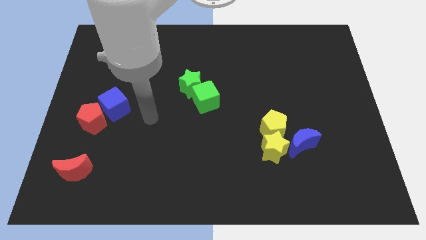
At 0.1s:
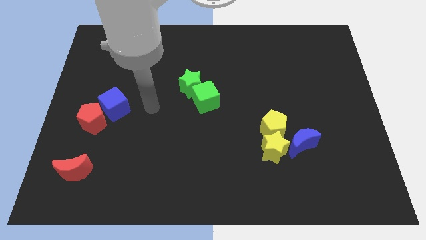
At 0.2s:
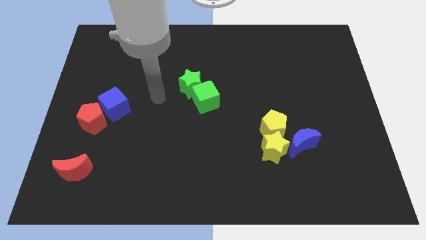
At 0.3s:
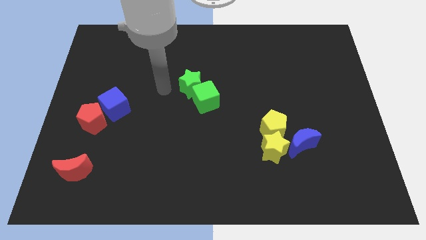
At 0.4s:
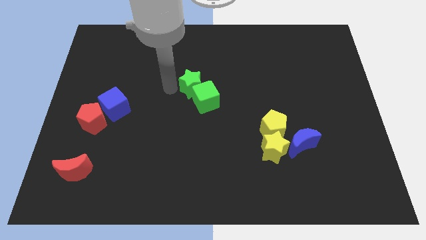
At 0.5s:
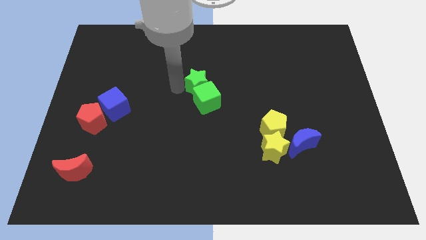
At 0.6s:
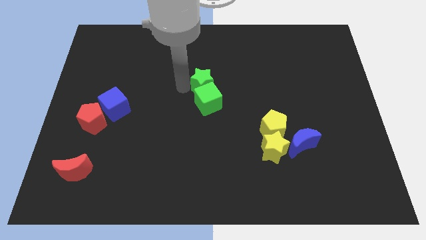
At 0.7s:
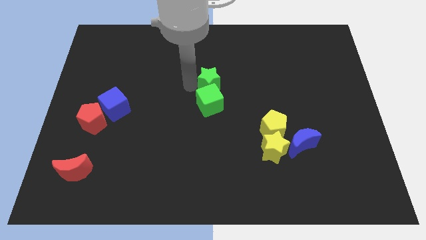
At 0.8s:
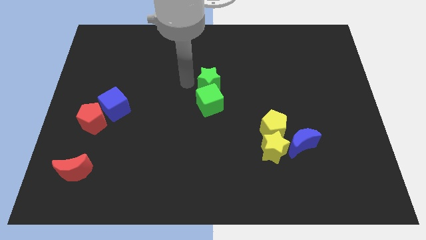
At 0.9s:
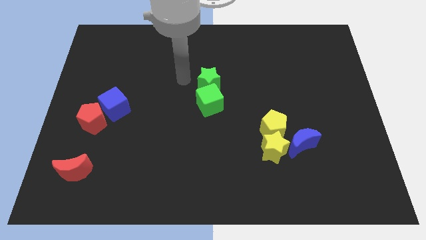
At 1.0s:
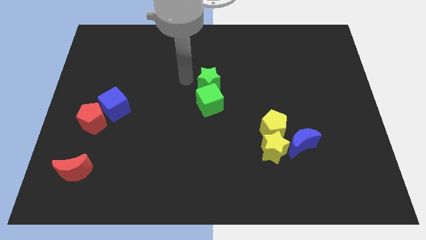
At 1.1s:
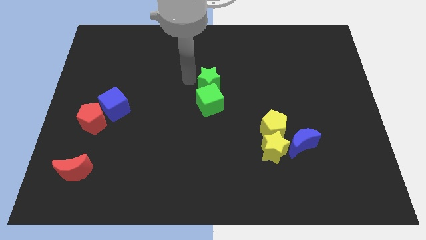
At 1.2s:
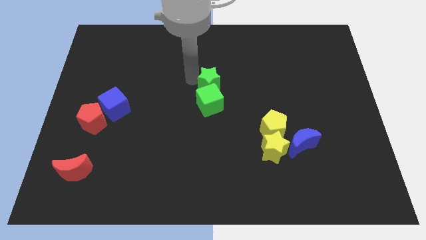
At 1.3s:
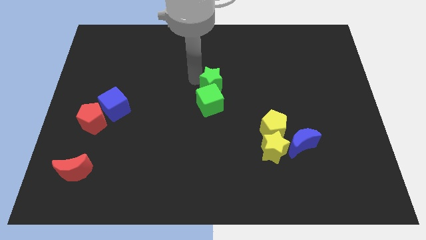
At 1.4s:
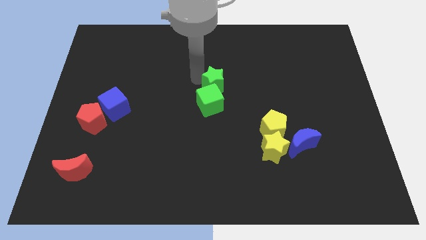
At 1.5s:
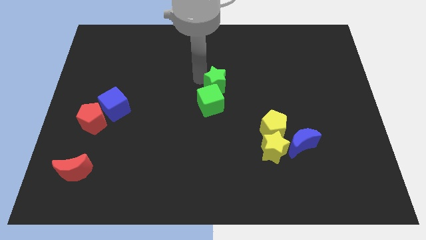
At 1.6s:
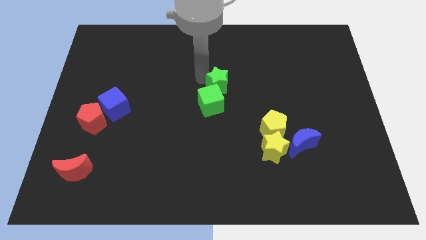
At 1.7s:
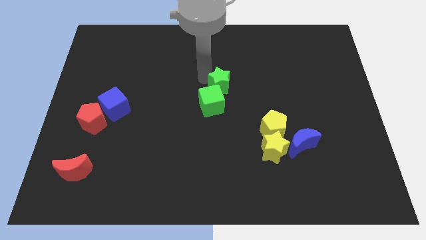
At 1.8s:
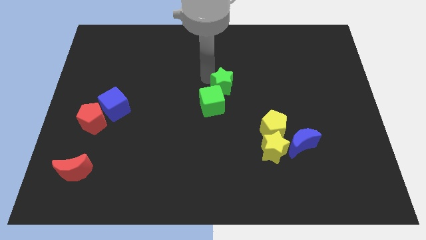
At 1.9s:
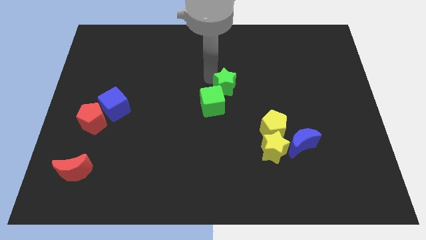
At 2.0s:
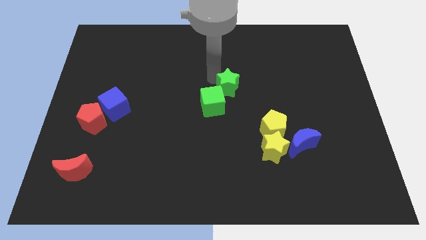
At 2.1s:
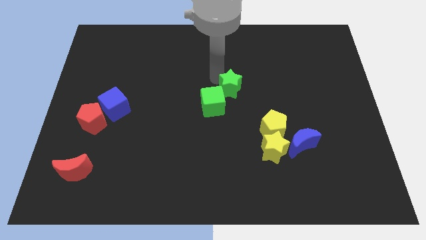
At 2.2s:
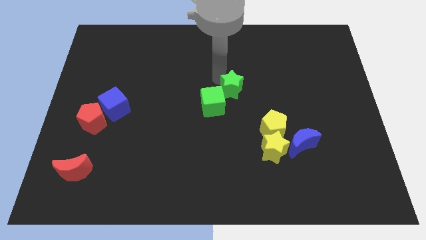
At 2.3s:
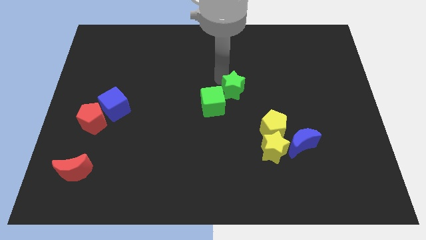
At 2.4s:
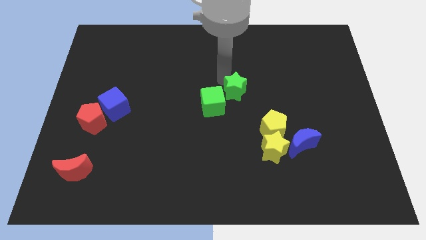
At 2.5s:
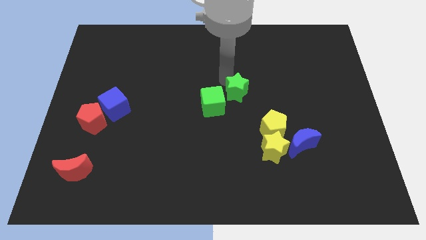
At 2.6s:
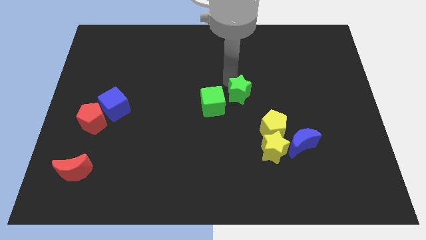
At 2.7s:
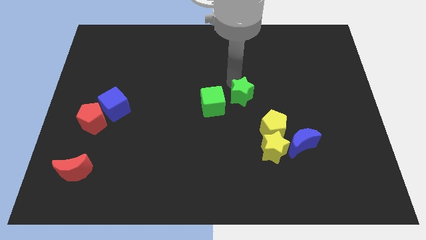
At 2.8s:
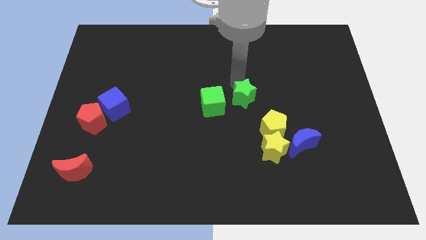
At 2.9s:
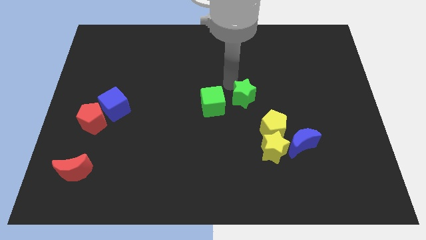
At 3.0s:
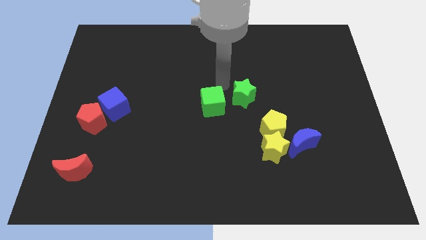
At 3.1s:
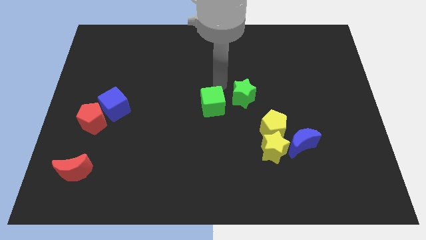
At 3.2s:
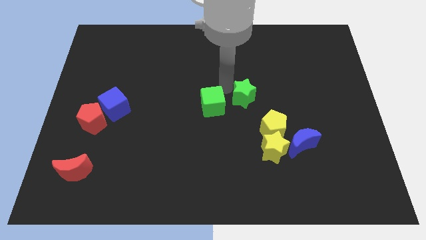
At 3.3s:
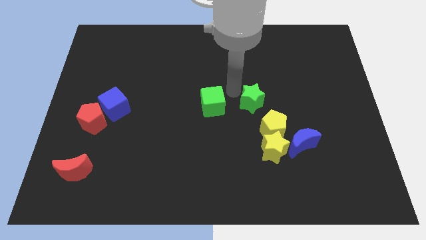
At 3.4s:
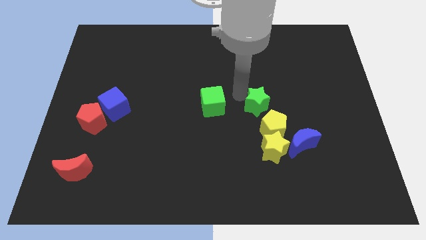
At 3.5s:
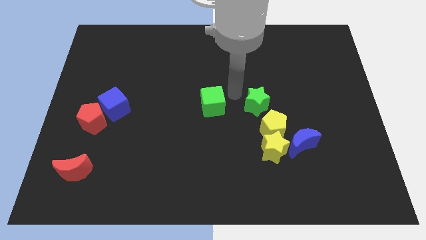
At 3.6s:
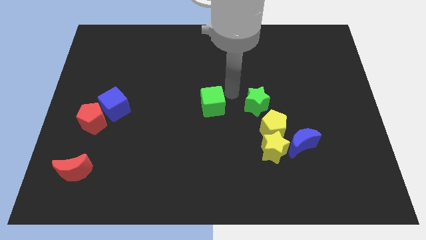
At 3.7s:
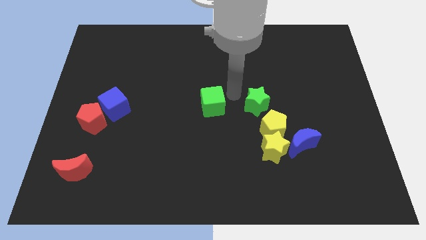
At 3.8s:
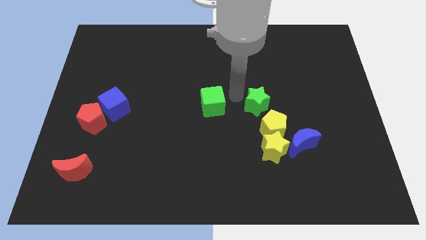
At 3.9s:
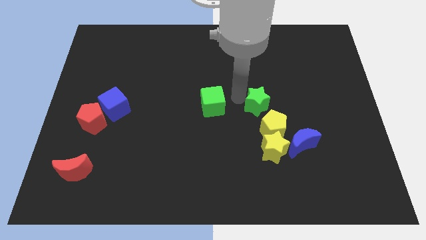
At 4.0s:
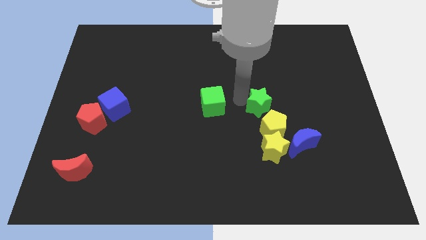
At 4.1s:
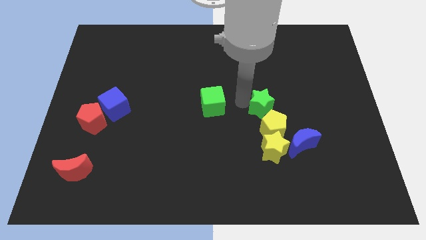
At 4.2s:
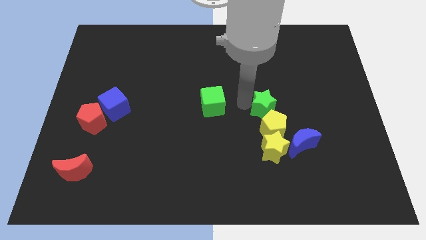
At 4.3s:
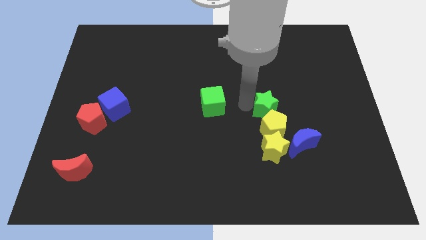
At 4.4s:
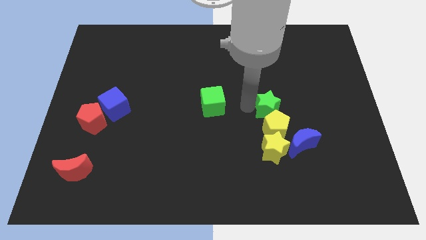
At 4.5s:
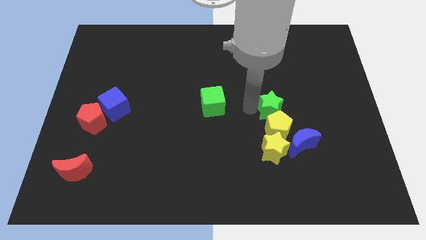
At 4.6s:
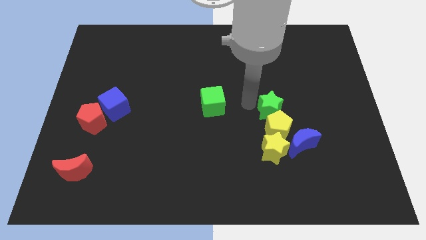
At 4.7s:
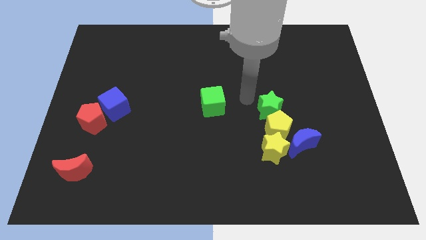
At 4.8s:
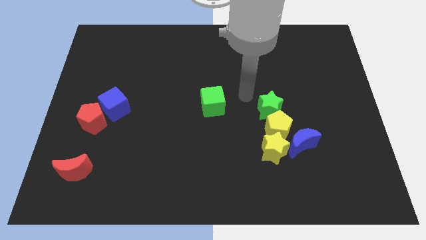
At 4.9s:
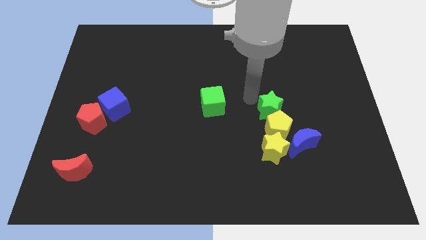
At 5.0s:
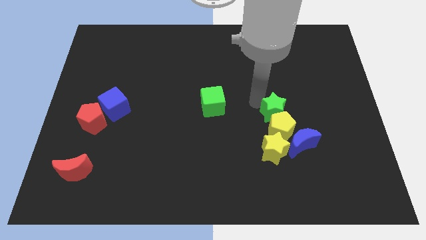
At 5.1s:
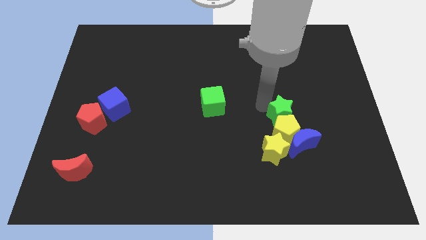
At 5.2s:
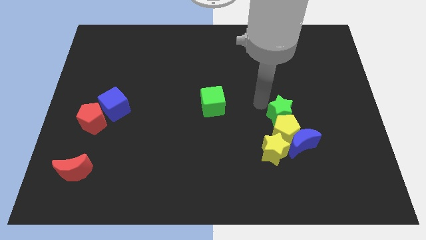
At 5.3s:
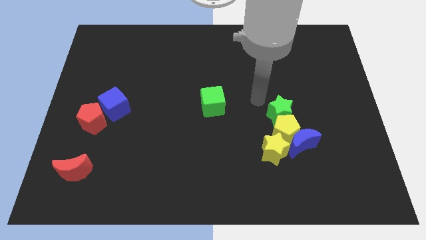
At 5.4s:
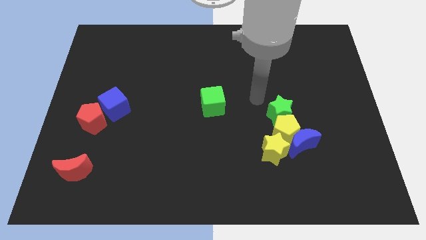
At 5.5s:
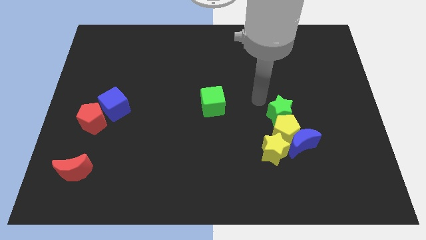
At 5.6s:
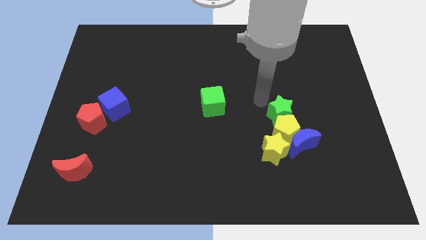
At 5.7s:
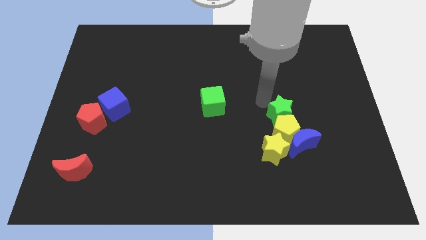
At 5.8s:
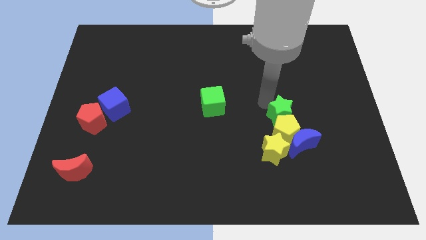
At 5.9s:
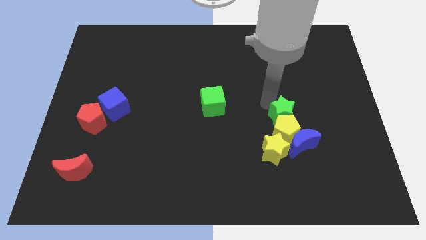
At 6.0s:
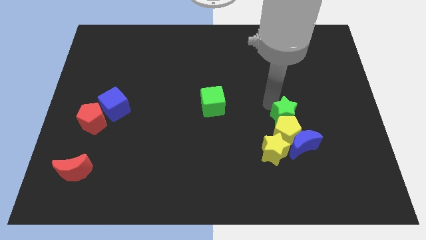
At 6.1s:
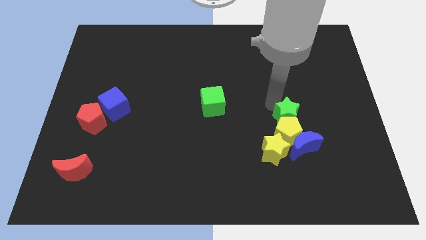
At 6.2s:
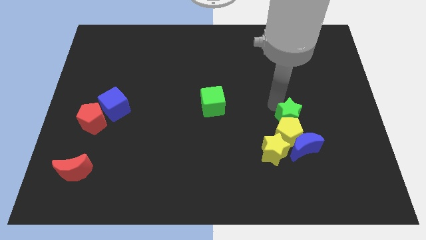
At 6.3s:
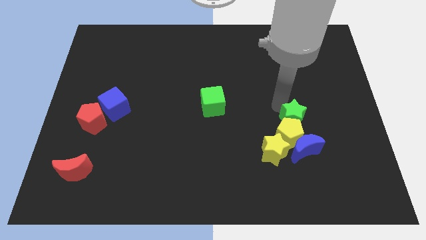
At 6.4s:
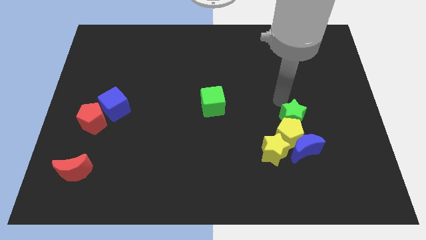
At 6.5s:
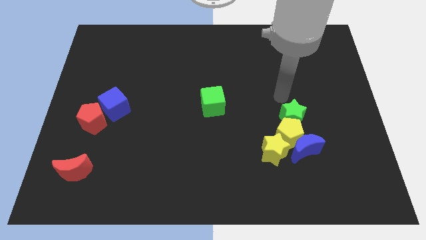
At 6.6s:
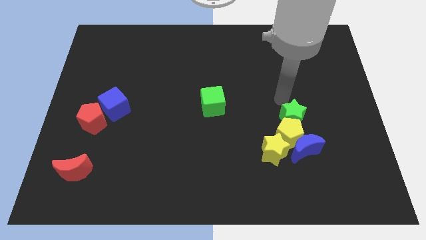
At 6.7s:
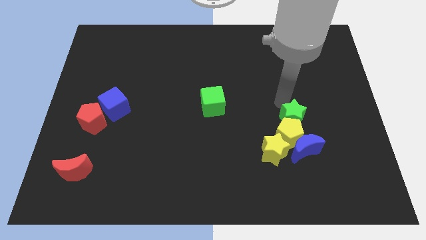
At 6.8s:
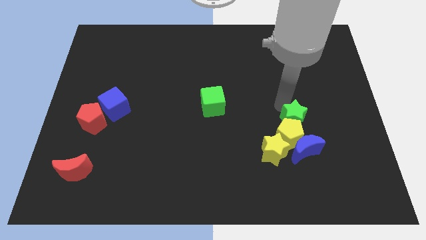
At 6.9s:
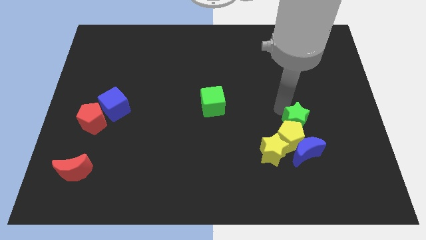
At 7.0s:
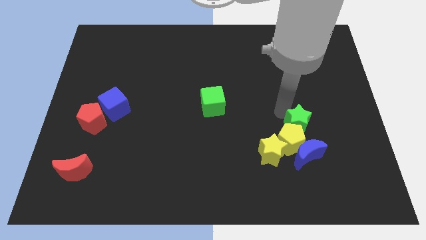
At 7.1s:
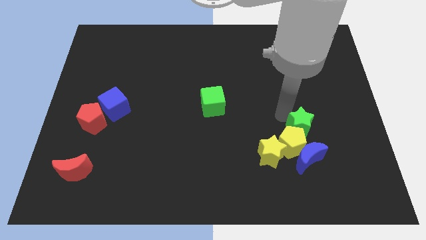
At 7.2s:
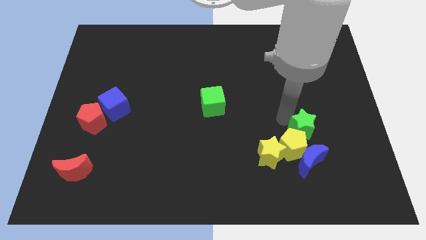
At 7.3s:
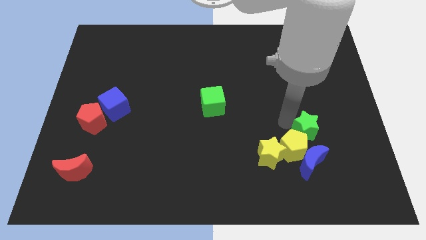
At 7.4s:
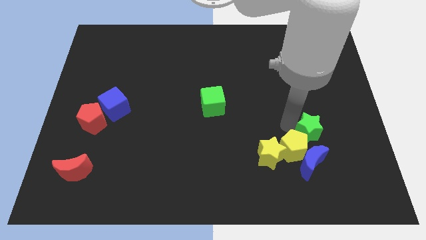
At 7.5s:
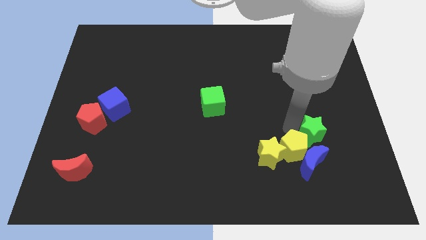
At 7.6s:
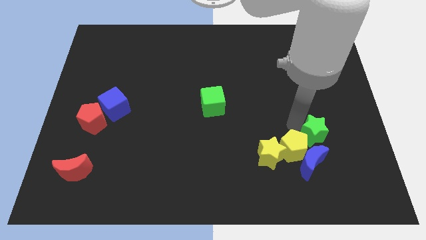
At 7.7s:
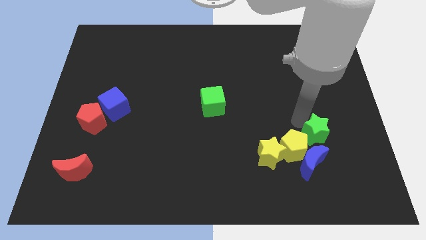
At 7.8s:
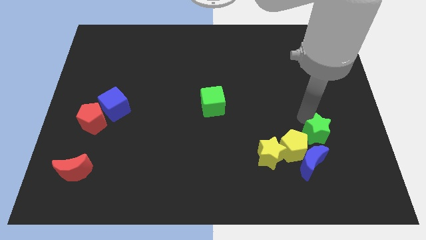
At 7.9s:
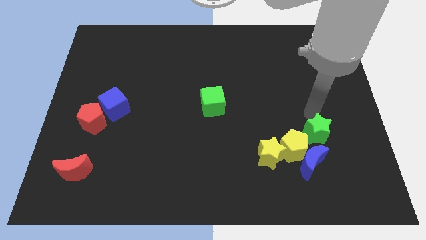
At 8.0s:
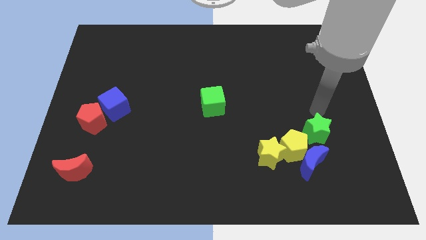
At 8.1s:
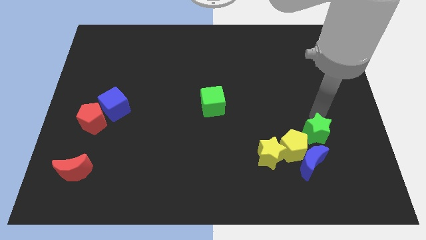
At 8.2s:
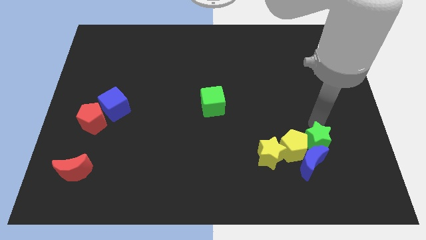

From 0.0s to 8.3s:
push the green star to the blue moon
